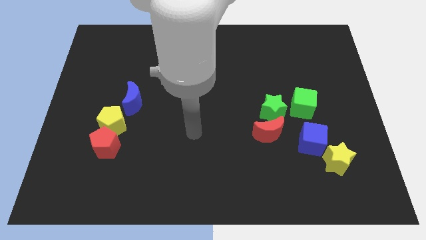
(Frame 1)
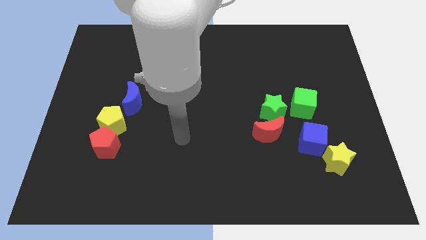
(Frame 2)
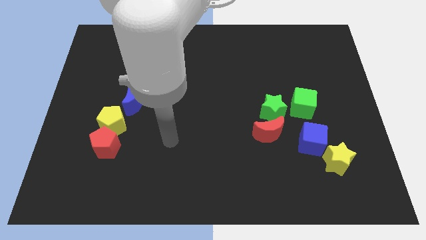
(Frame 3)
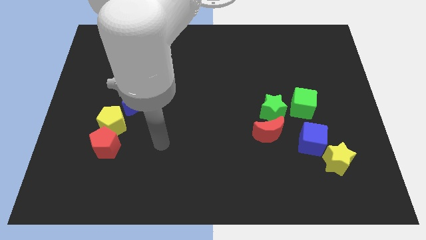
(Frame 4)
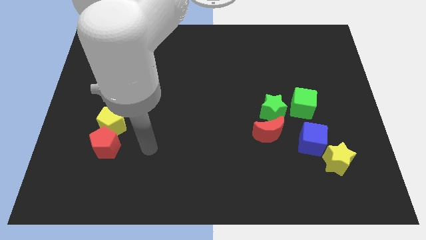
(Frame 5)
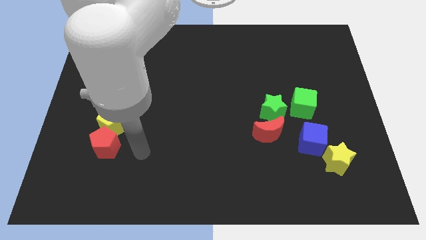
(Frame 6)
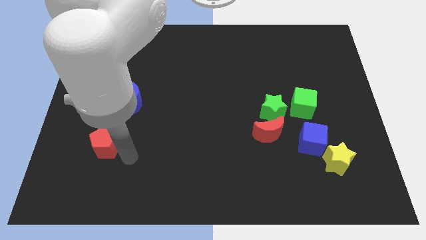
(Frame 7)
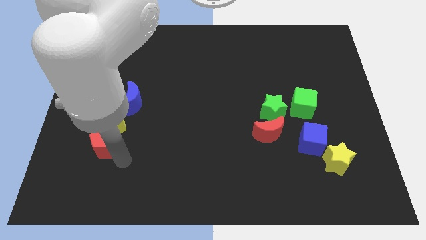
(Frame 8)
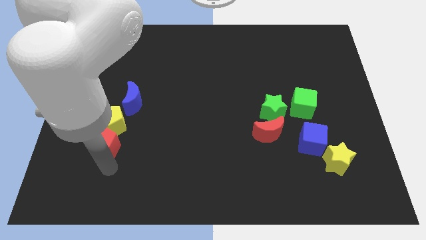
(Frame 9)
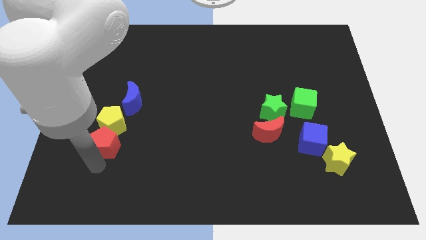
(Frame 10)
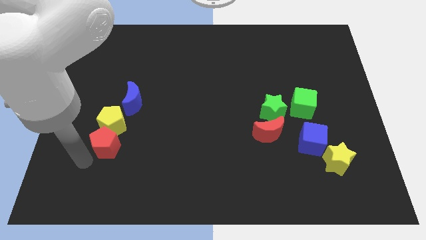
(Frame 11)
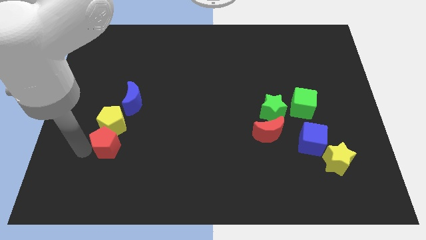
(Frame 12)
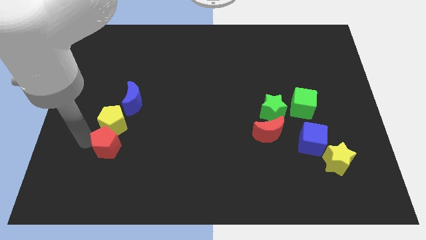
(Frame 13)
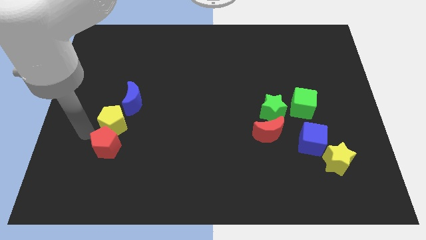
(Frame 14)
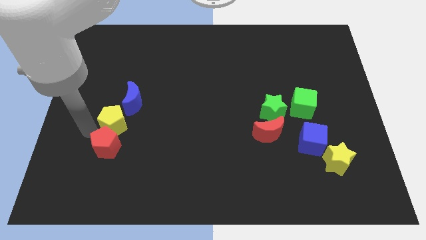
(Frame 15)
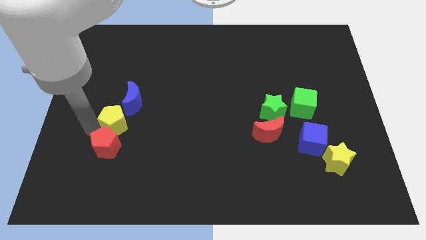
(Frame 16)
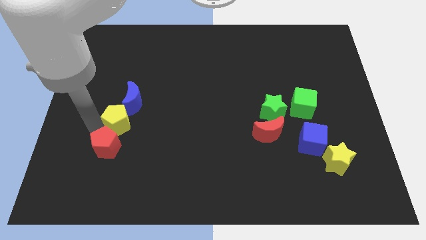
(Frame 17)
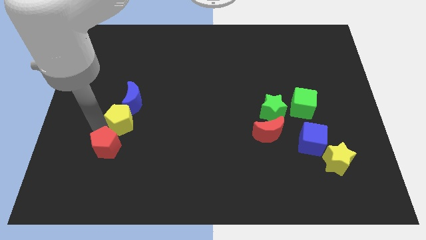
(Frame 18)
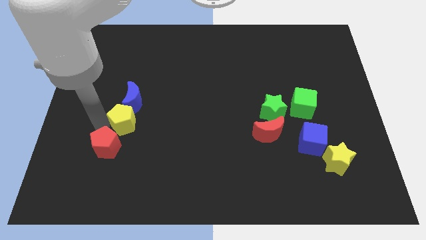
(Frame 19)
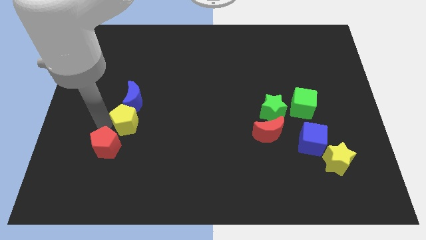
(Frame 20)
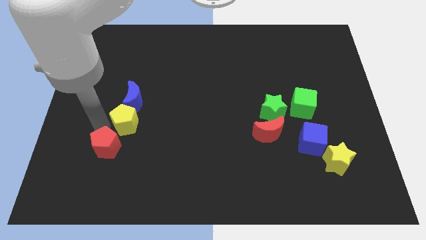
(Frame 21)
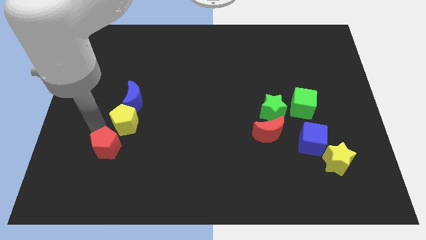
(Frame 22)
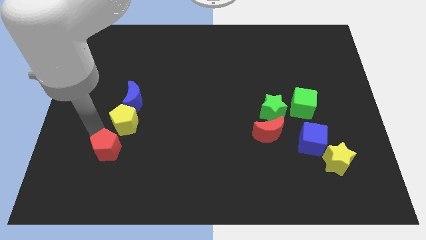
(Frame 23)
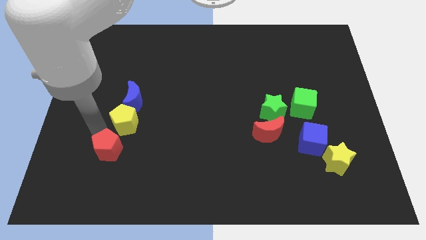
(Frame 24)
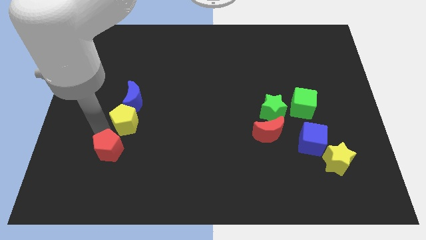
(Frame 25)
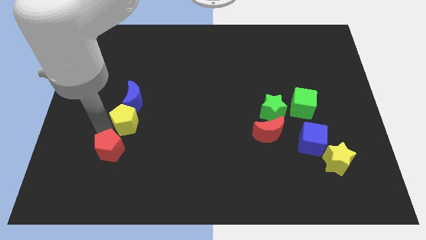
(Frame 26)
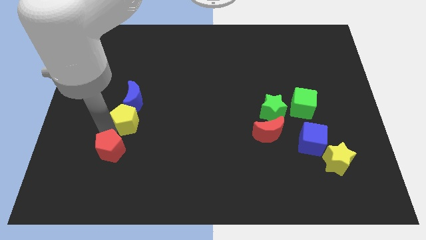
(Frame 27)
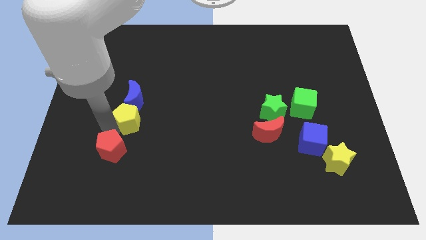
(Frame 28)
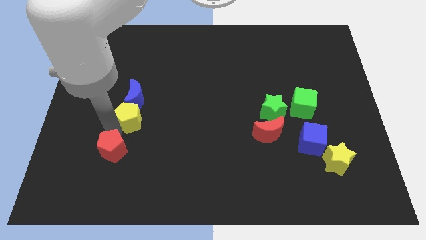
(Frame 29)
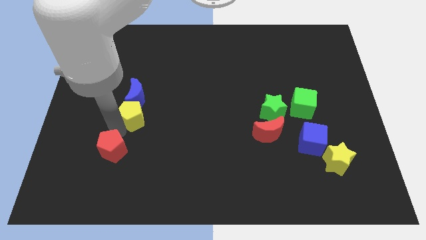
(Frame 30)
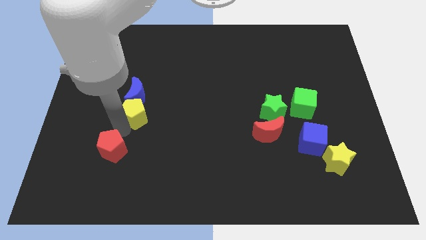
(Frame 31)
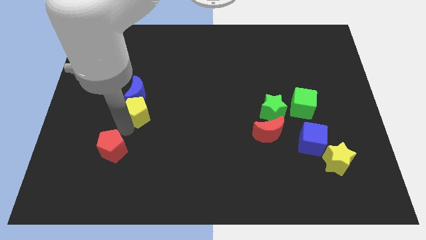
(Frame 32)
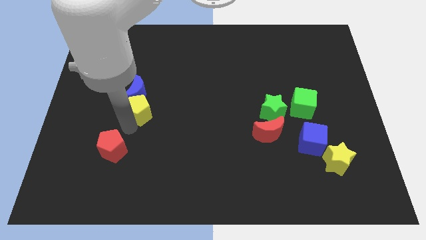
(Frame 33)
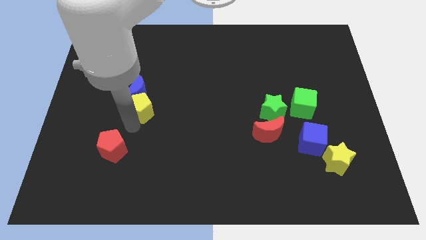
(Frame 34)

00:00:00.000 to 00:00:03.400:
move the yellow pentagon up and then right somewhat

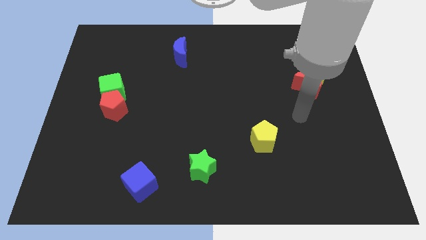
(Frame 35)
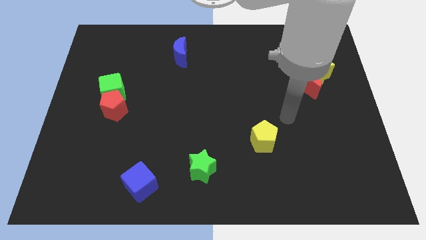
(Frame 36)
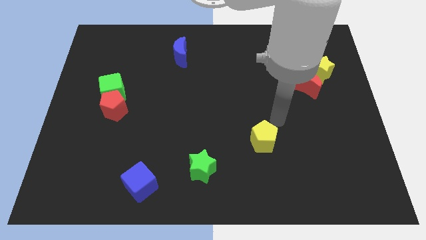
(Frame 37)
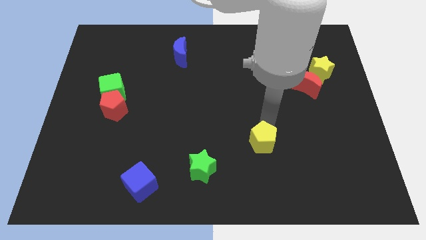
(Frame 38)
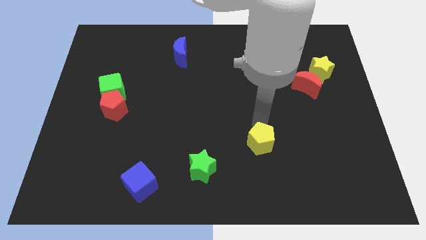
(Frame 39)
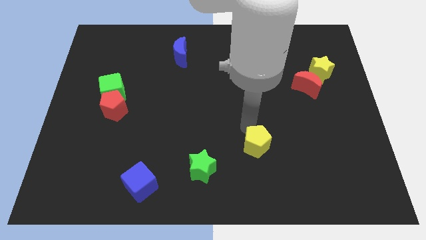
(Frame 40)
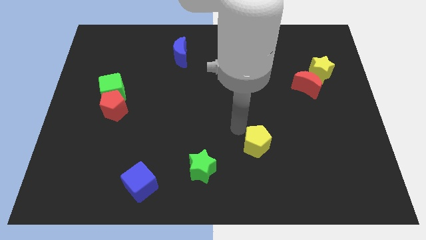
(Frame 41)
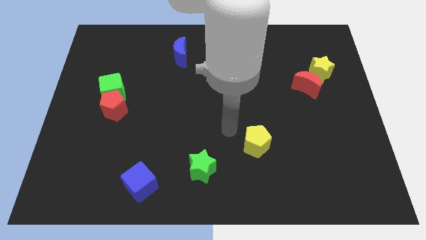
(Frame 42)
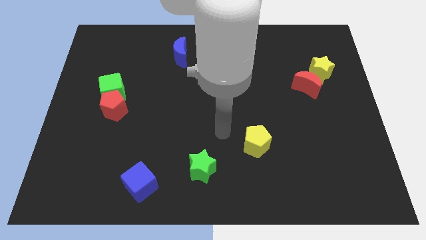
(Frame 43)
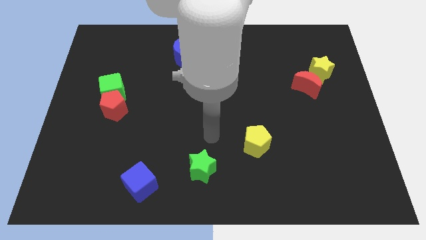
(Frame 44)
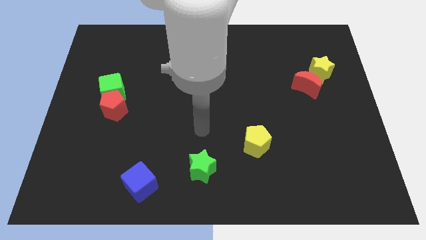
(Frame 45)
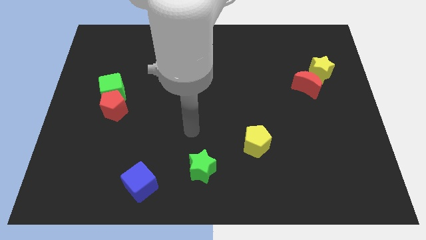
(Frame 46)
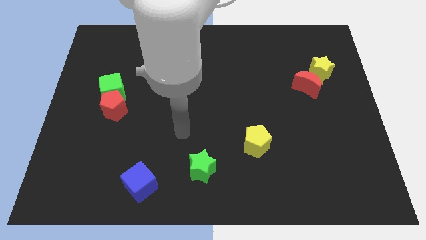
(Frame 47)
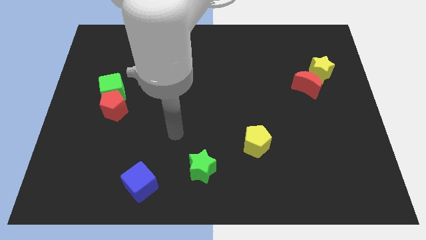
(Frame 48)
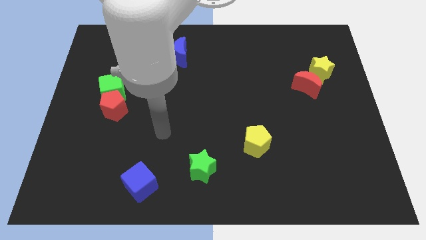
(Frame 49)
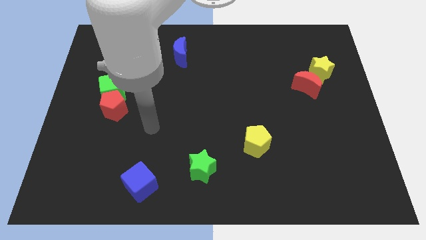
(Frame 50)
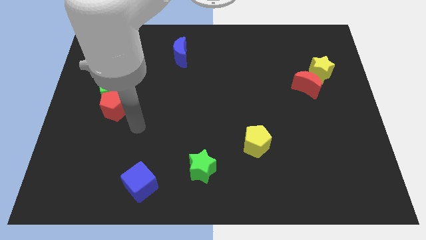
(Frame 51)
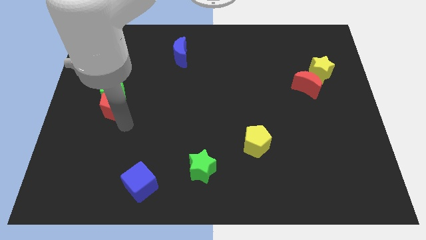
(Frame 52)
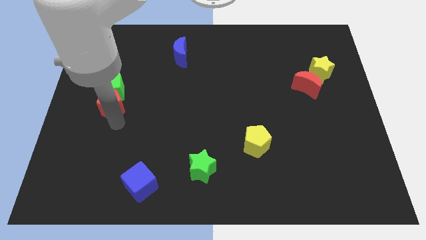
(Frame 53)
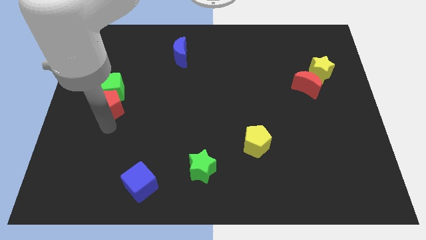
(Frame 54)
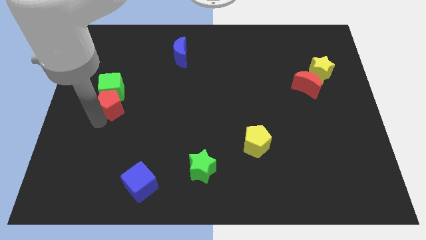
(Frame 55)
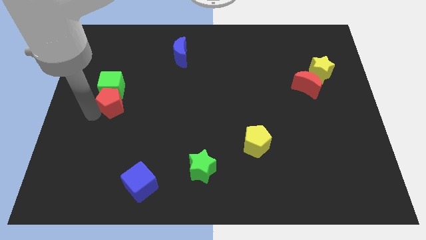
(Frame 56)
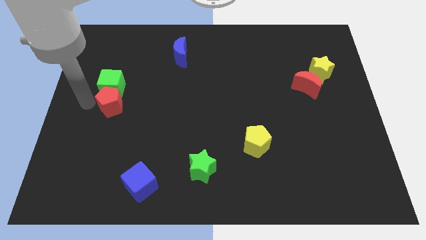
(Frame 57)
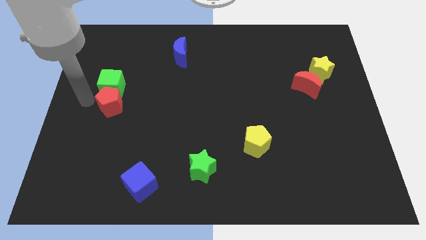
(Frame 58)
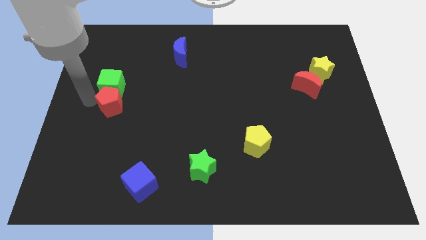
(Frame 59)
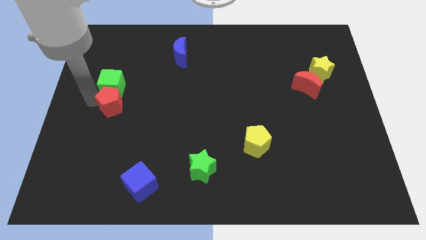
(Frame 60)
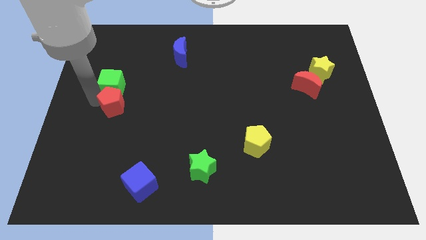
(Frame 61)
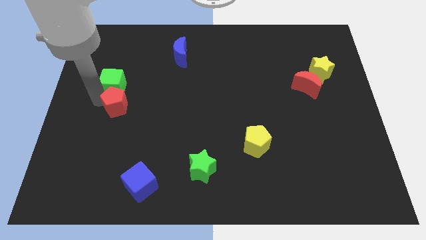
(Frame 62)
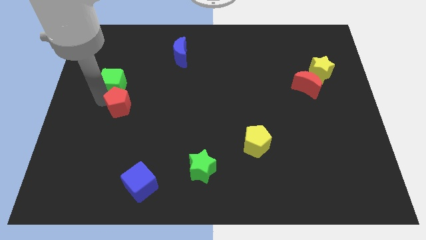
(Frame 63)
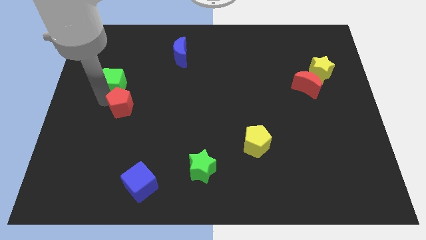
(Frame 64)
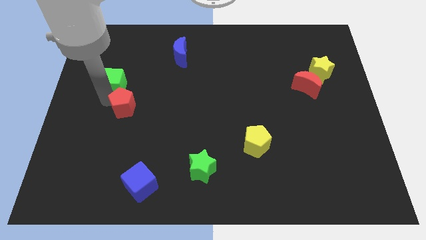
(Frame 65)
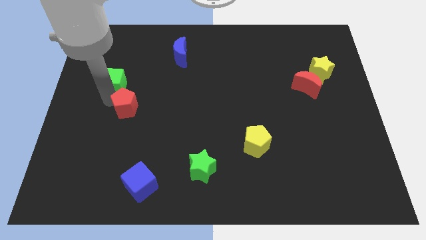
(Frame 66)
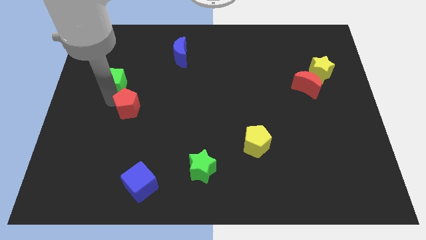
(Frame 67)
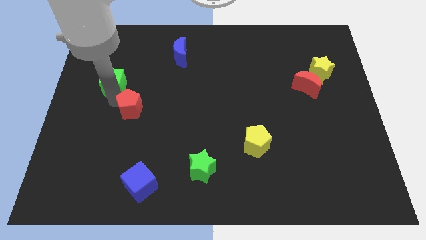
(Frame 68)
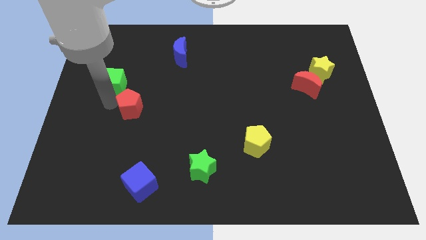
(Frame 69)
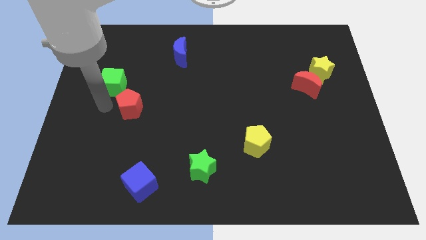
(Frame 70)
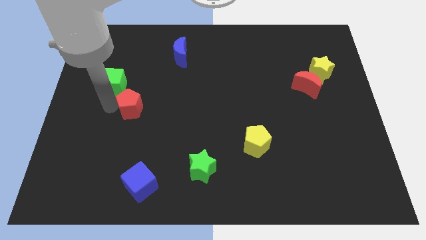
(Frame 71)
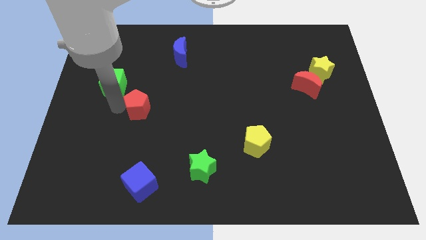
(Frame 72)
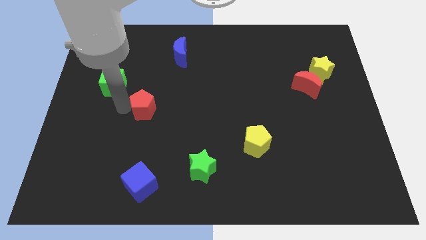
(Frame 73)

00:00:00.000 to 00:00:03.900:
push the red pentagon right a little bit

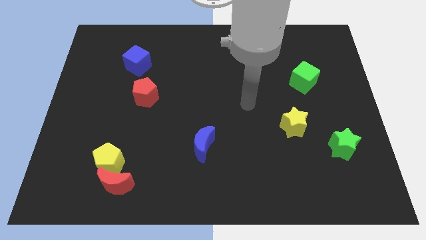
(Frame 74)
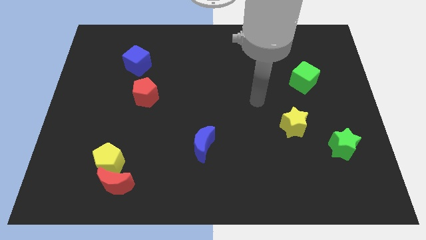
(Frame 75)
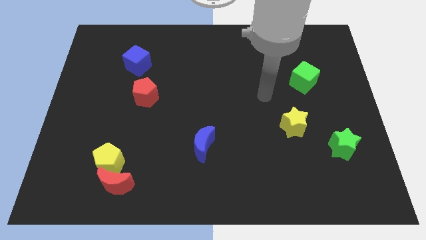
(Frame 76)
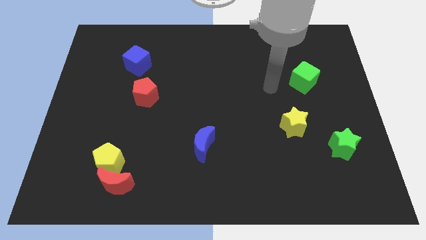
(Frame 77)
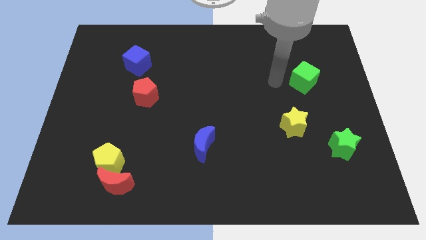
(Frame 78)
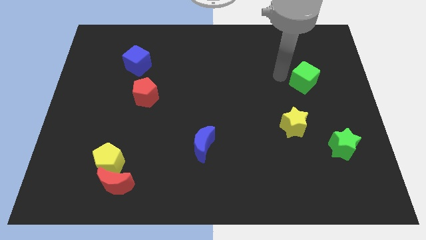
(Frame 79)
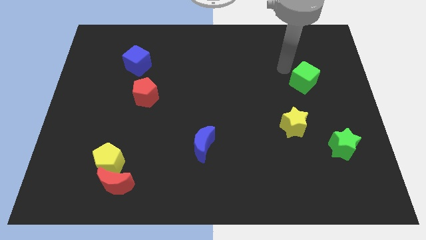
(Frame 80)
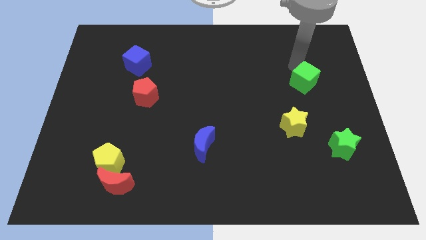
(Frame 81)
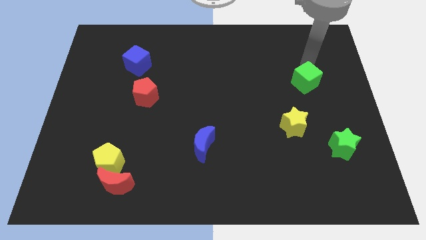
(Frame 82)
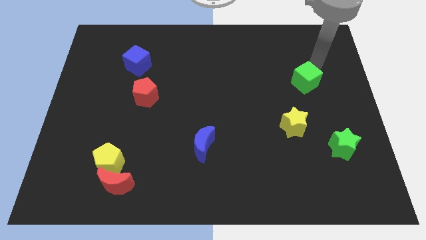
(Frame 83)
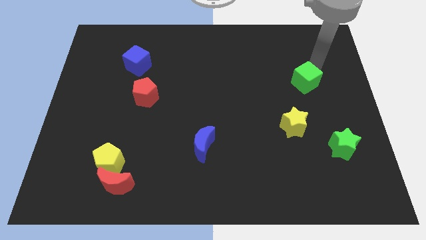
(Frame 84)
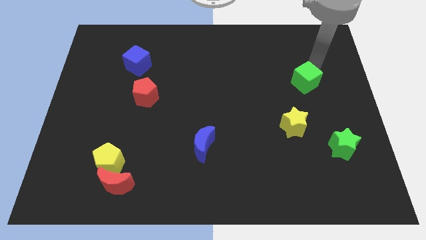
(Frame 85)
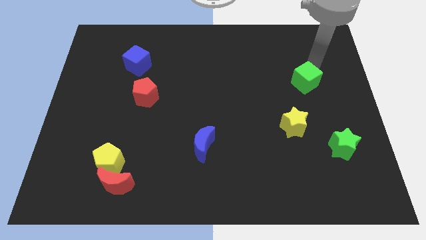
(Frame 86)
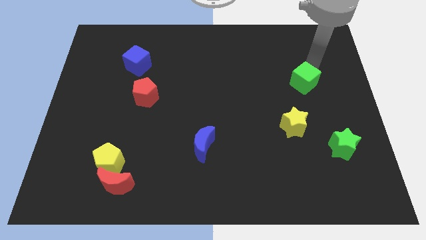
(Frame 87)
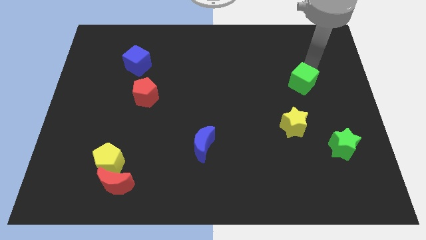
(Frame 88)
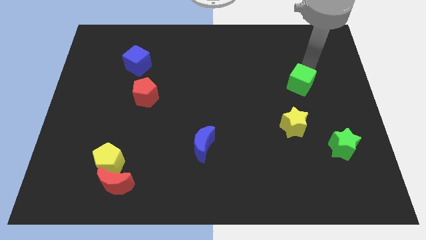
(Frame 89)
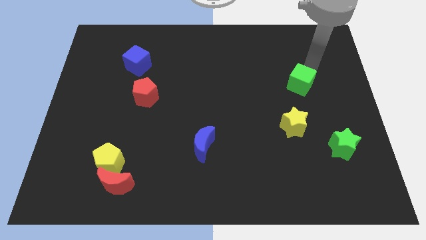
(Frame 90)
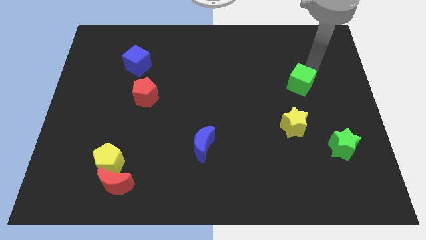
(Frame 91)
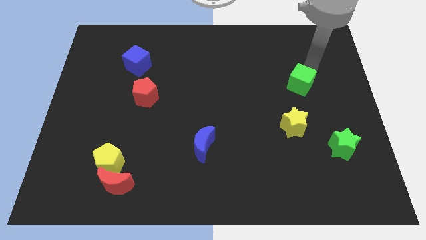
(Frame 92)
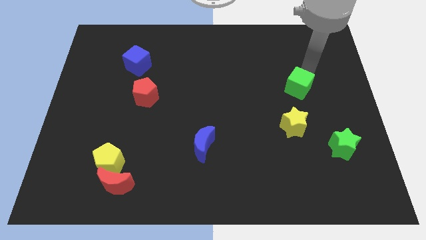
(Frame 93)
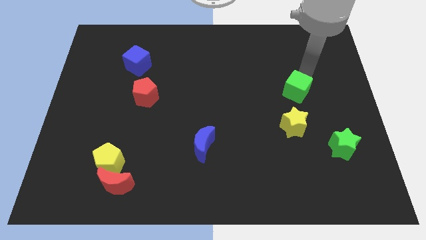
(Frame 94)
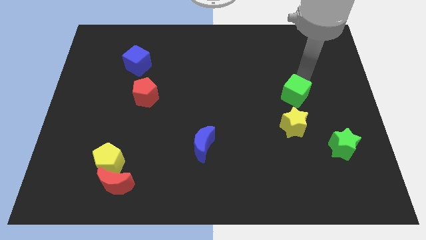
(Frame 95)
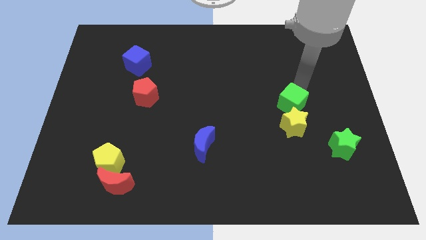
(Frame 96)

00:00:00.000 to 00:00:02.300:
move the green cube somewhat downwards and to the left
